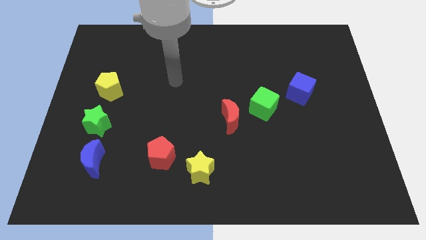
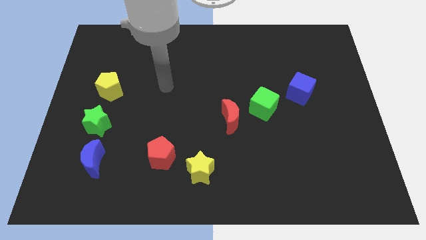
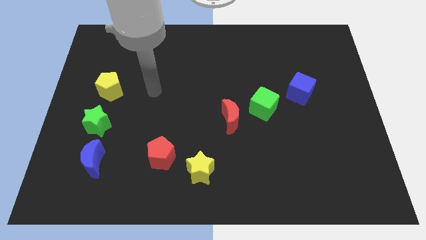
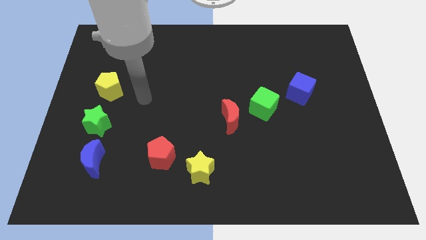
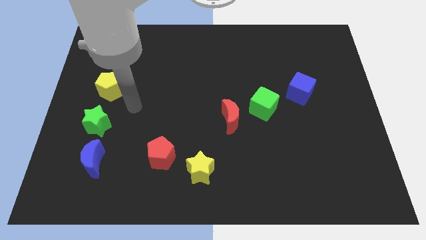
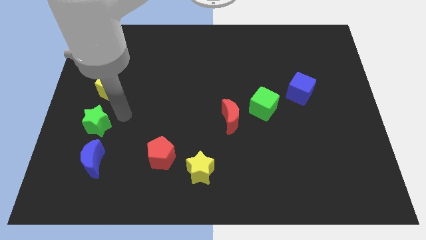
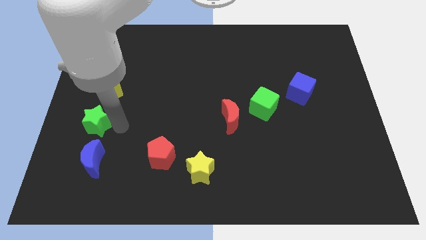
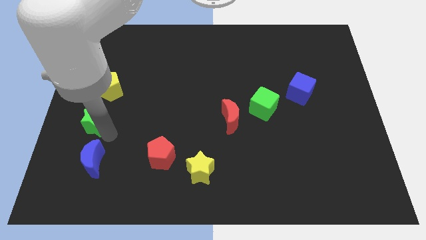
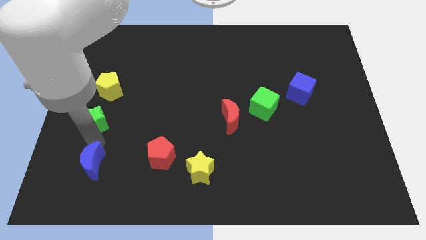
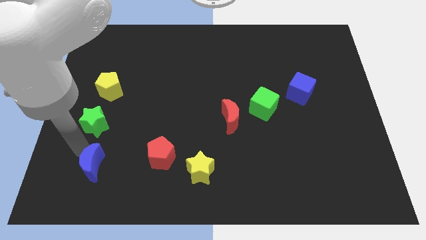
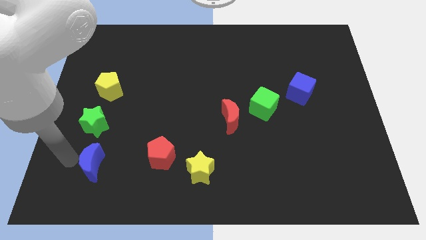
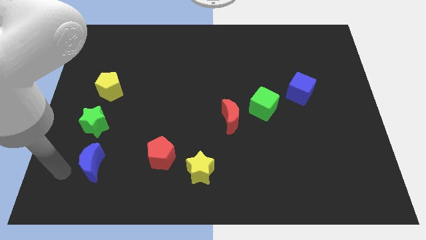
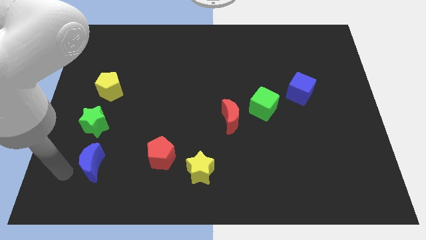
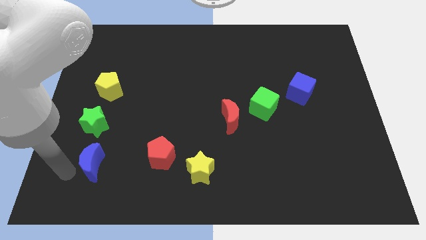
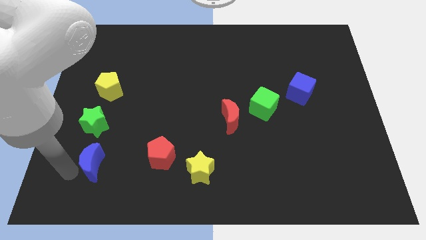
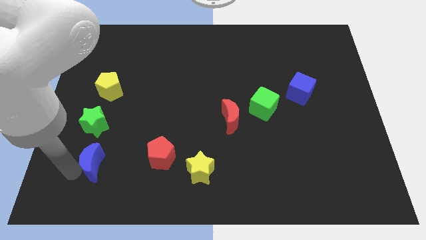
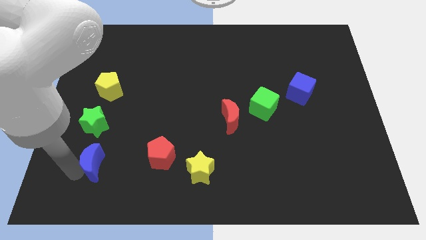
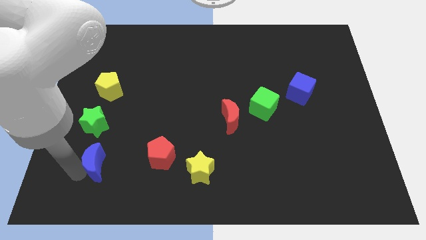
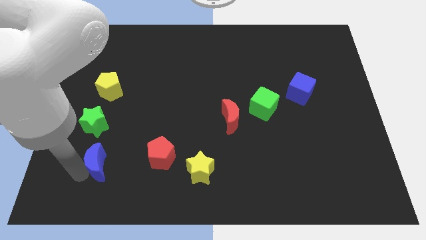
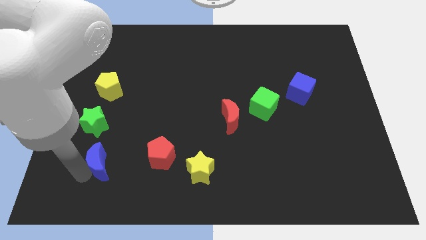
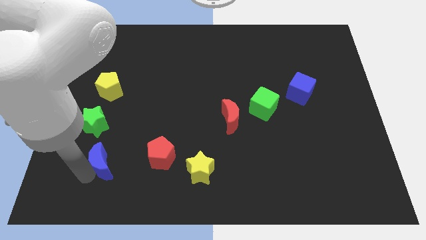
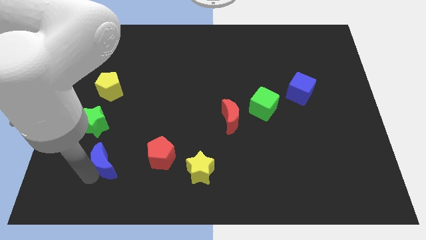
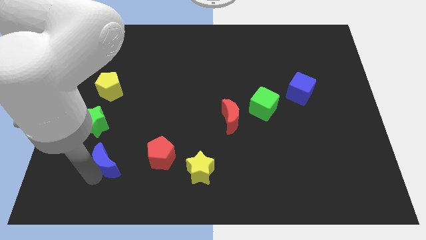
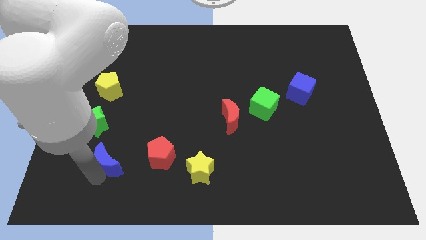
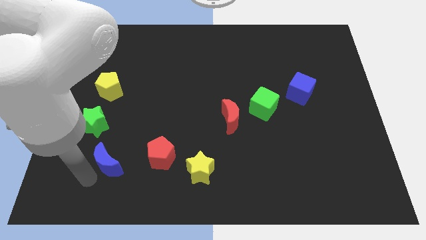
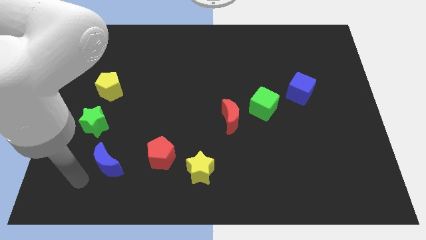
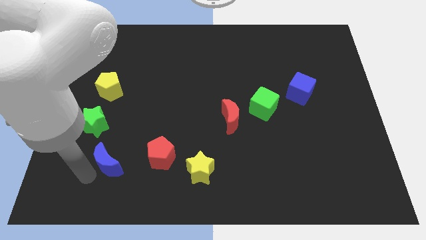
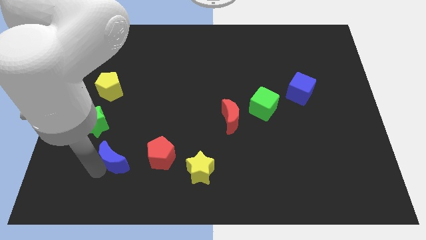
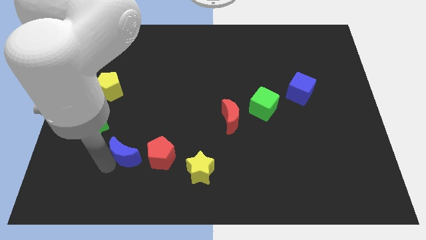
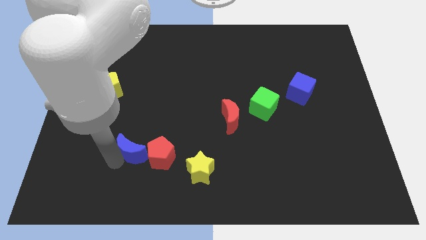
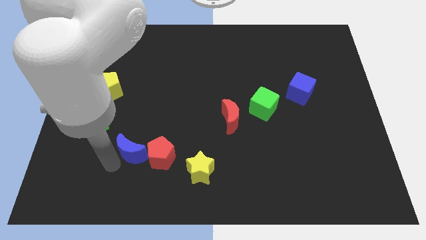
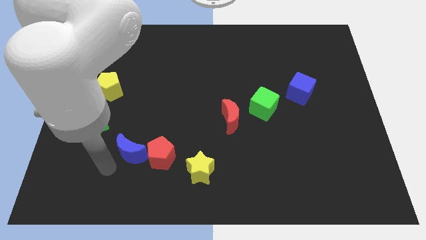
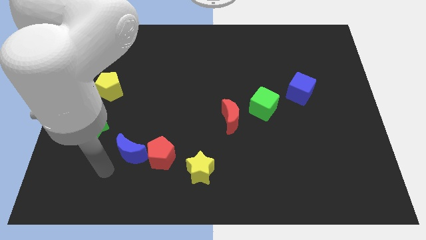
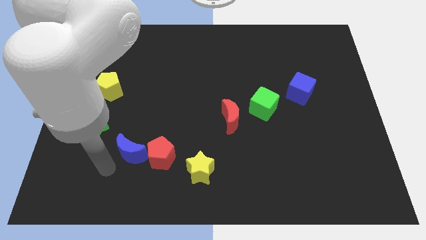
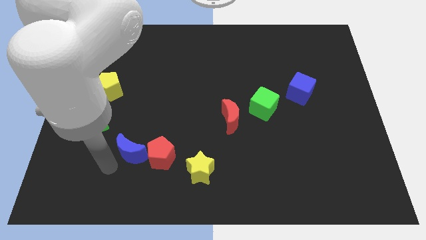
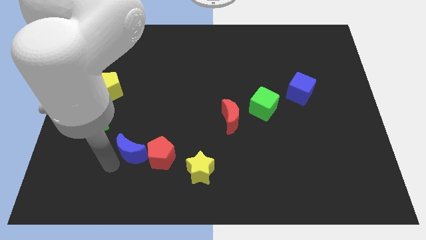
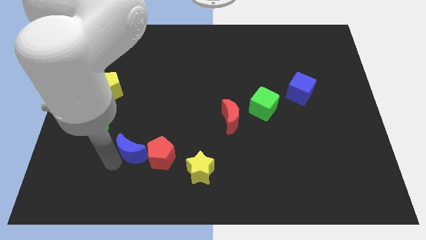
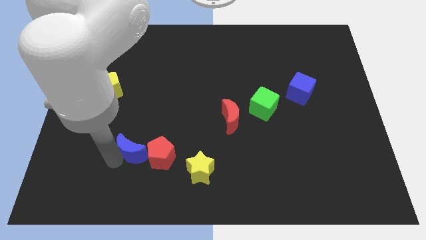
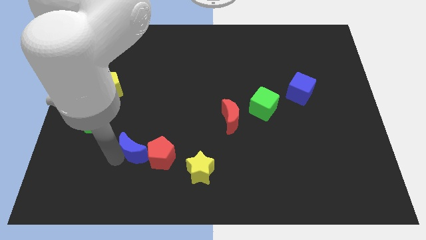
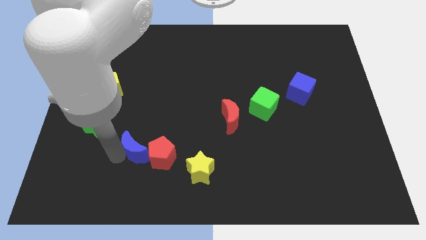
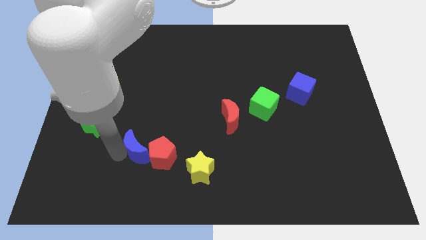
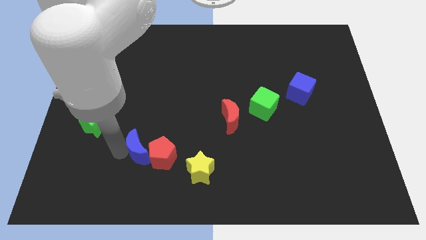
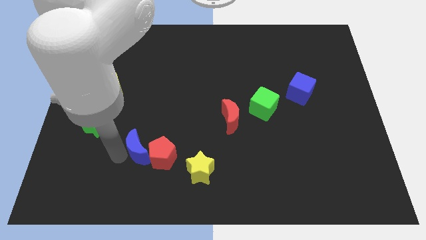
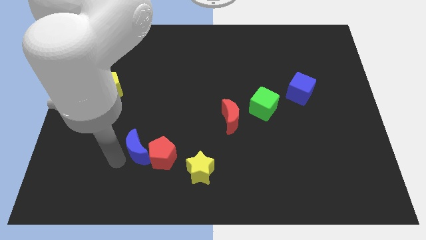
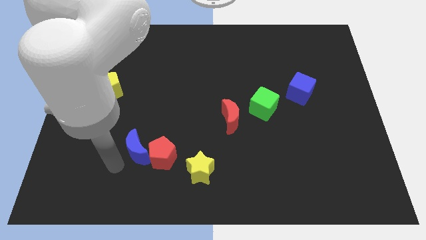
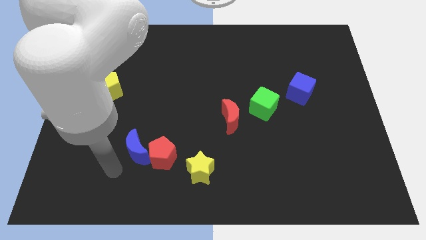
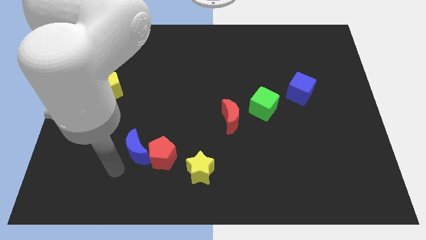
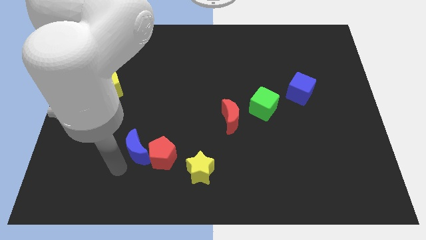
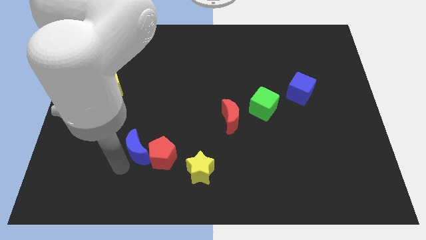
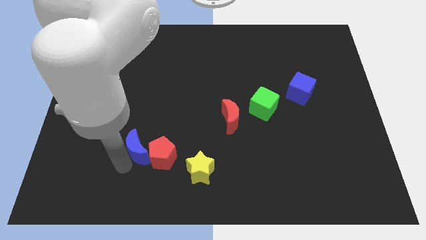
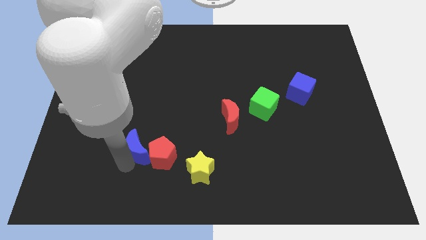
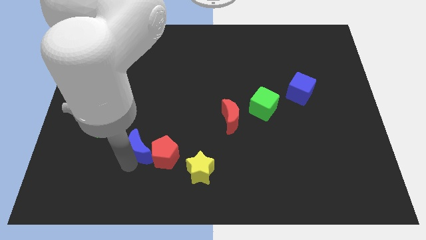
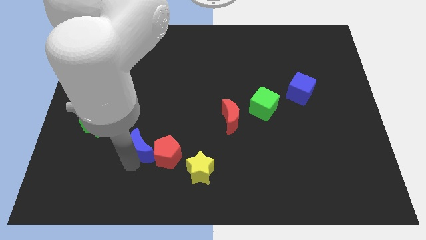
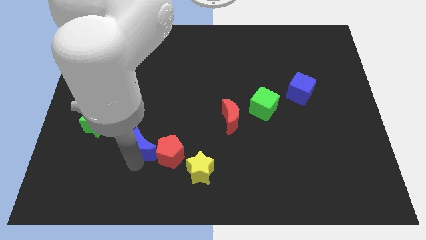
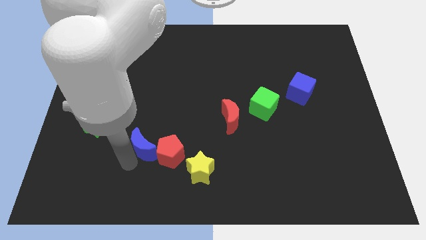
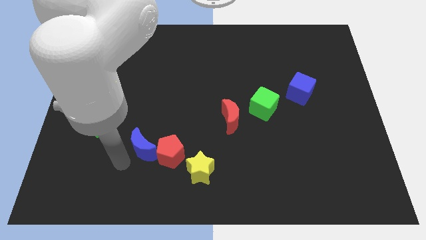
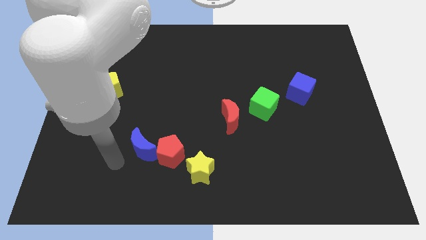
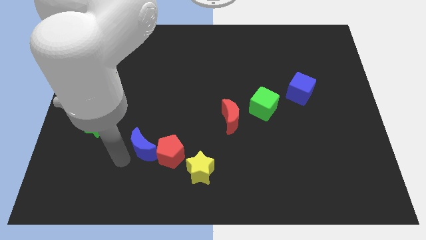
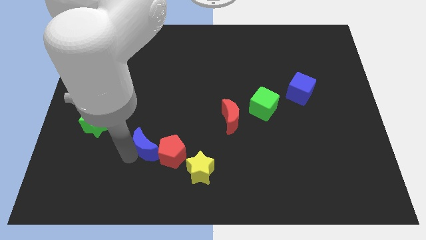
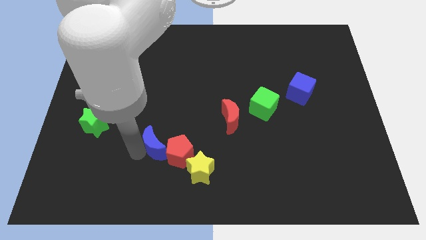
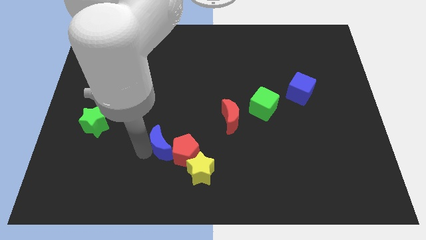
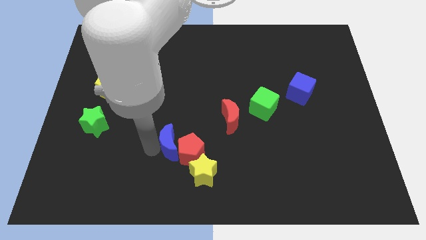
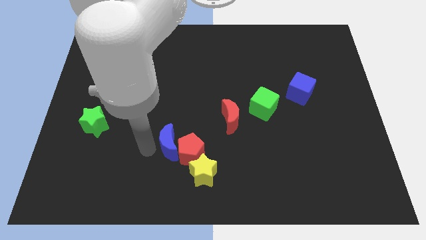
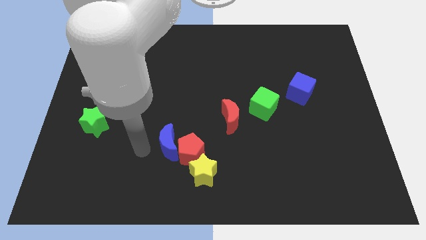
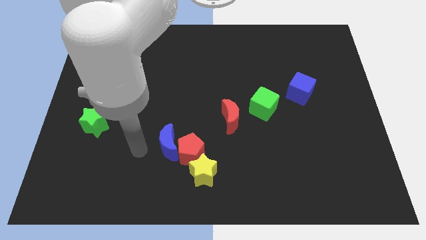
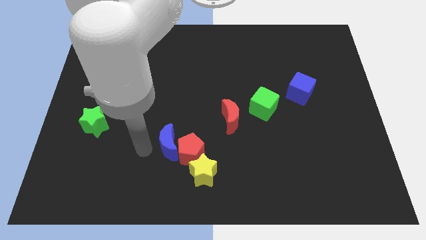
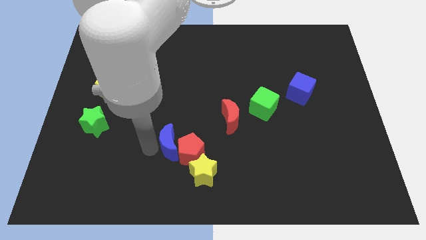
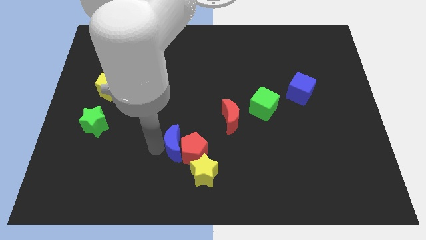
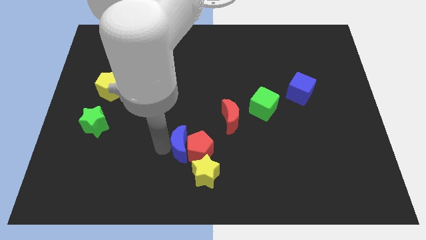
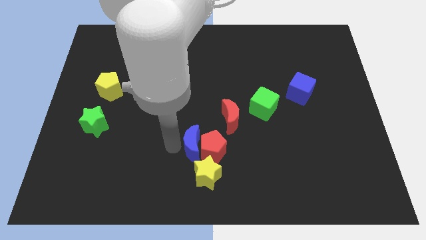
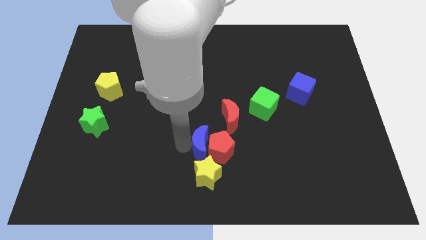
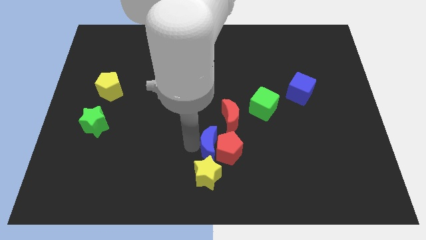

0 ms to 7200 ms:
put the blue moon to the top right of the yellow star
